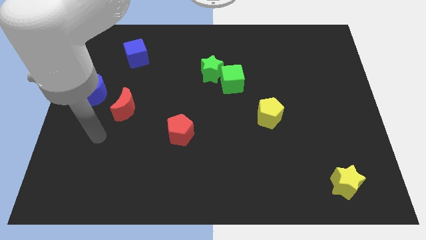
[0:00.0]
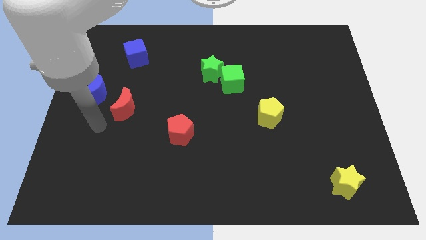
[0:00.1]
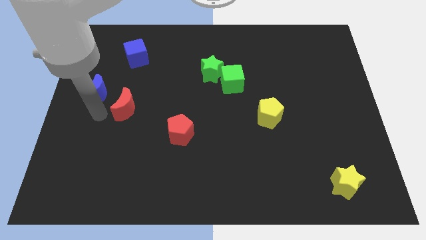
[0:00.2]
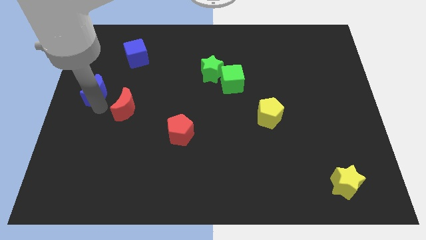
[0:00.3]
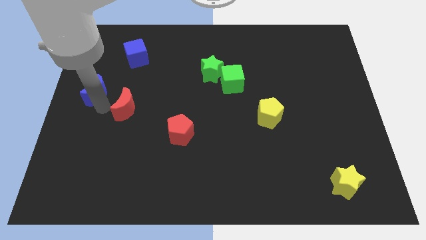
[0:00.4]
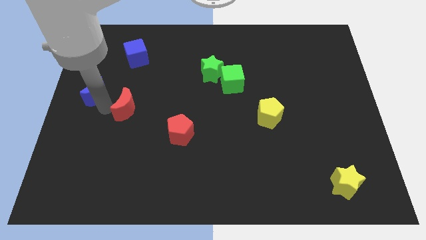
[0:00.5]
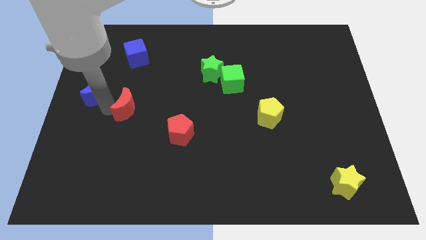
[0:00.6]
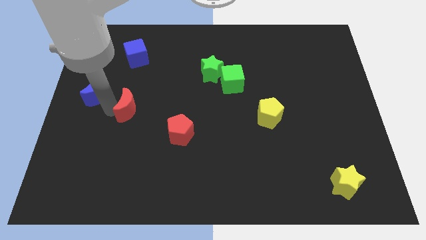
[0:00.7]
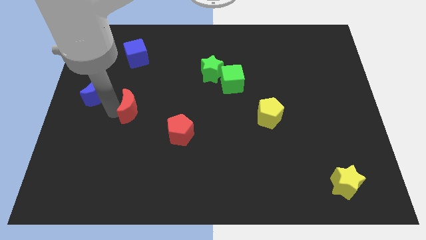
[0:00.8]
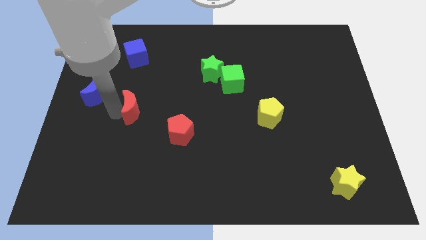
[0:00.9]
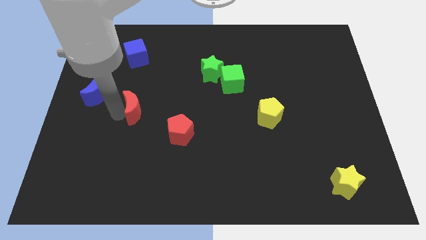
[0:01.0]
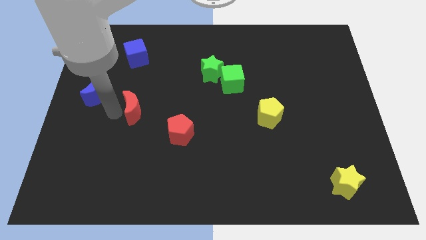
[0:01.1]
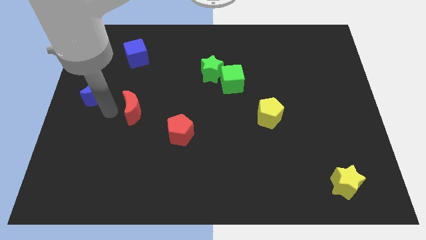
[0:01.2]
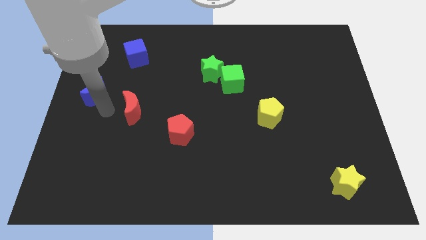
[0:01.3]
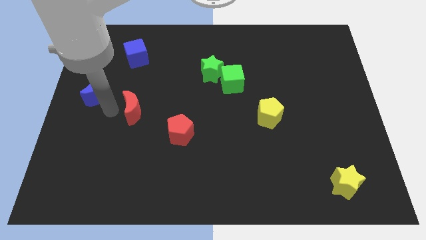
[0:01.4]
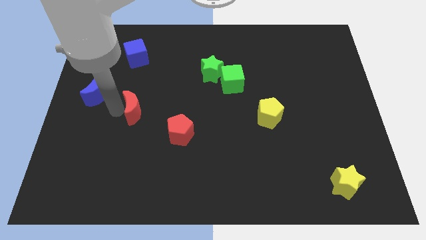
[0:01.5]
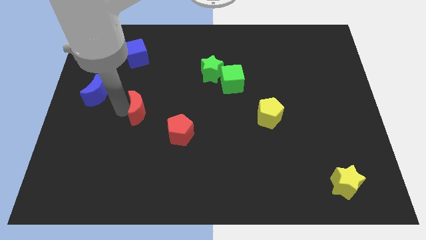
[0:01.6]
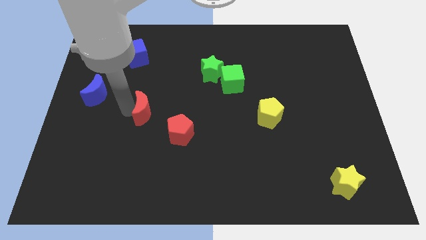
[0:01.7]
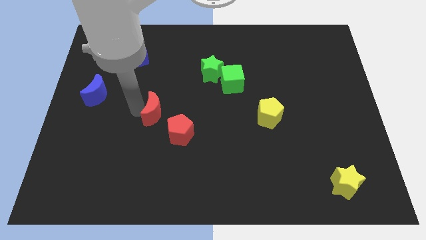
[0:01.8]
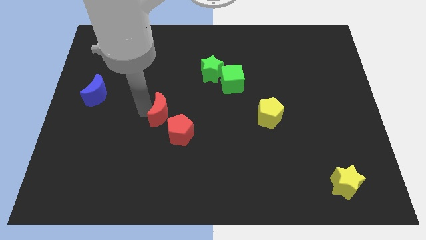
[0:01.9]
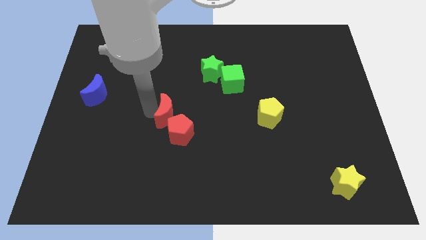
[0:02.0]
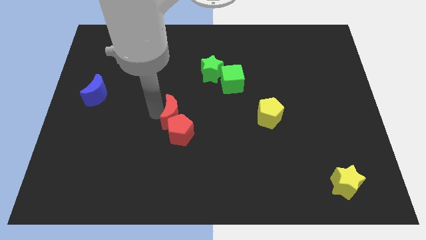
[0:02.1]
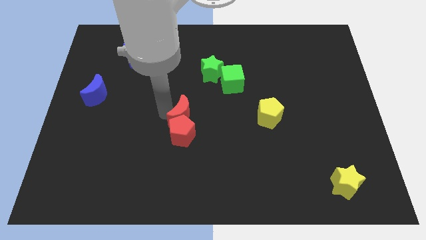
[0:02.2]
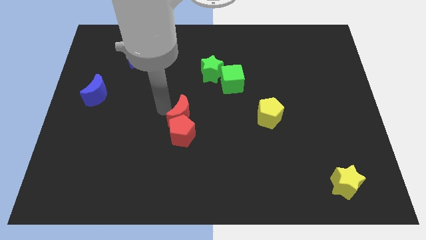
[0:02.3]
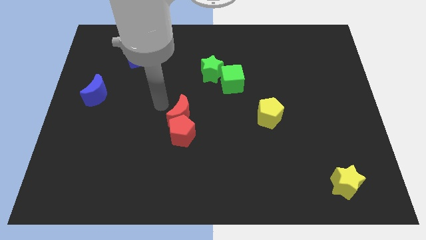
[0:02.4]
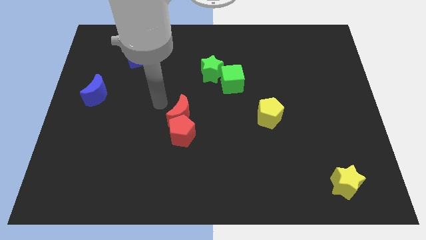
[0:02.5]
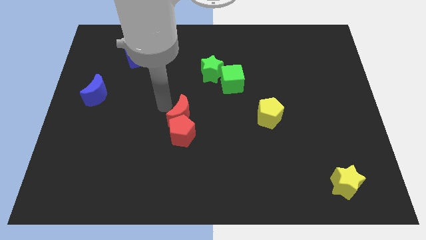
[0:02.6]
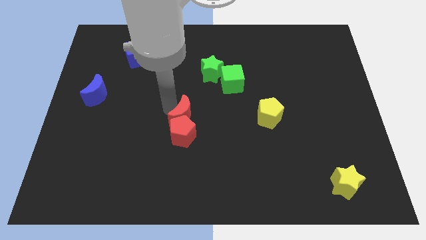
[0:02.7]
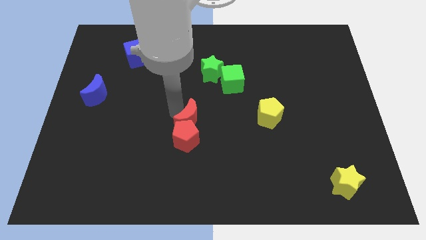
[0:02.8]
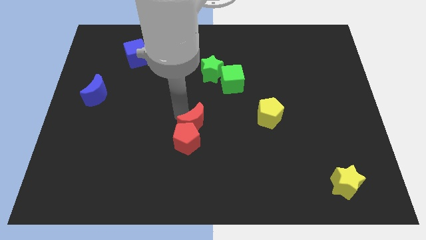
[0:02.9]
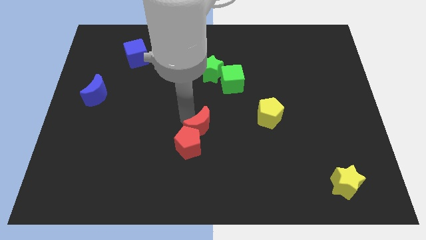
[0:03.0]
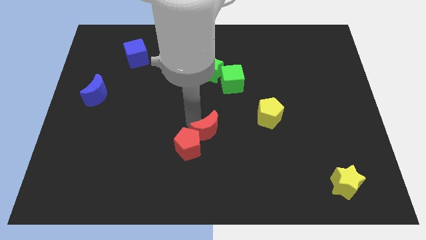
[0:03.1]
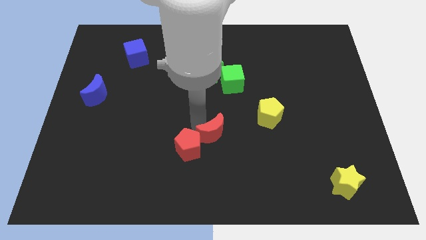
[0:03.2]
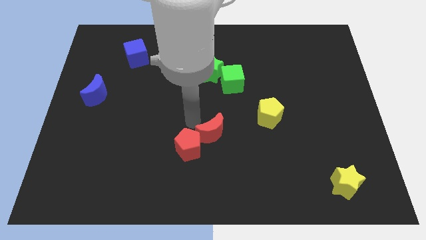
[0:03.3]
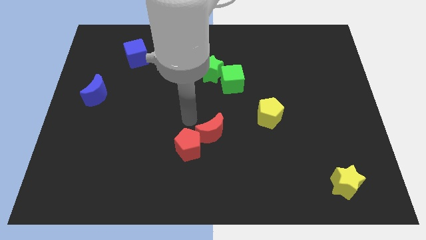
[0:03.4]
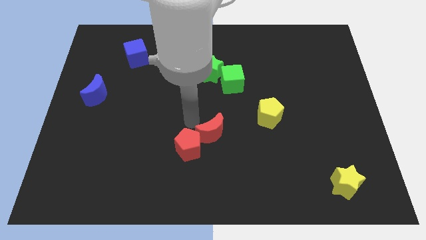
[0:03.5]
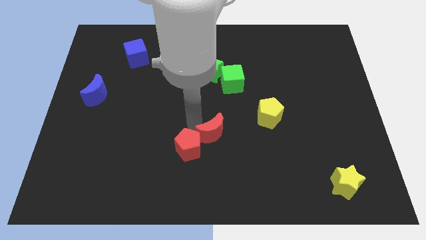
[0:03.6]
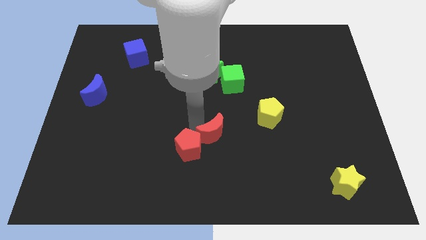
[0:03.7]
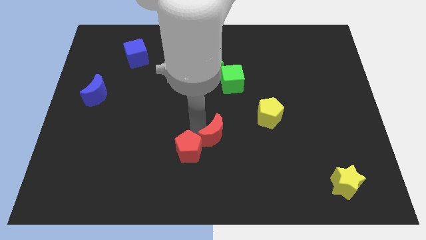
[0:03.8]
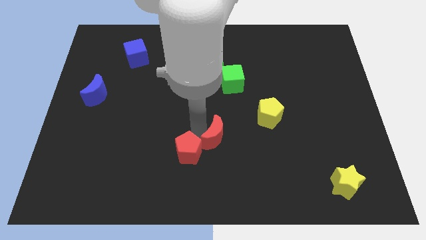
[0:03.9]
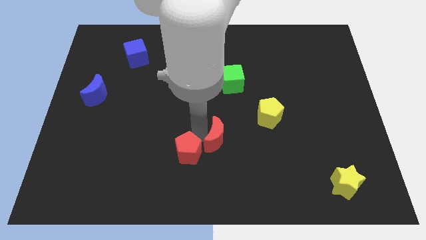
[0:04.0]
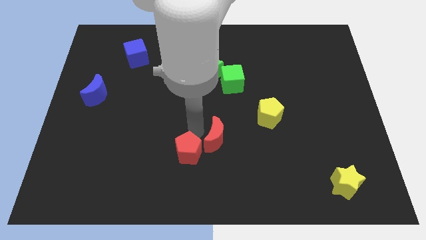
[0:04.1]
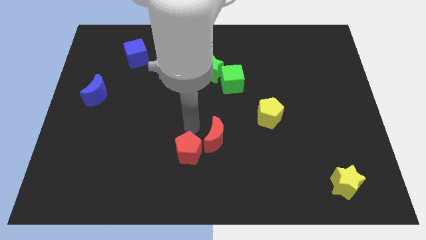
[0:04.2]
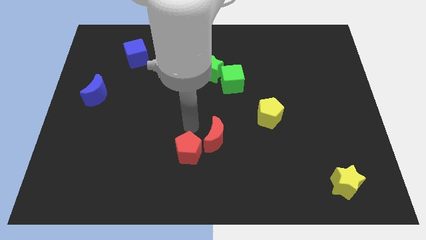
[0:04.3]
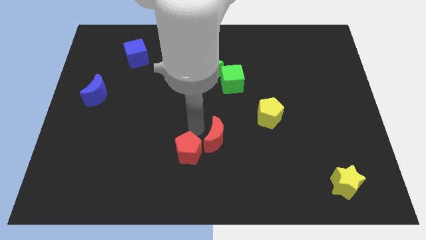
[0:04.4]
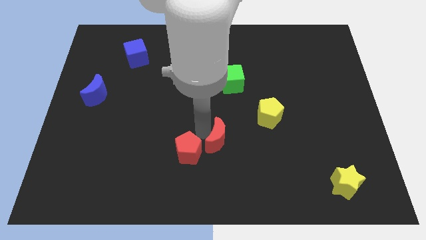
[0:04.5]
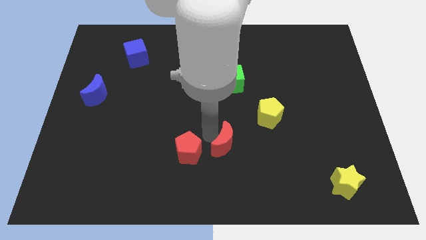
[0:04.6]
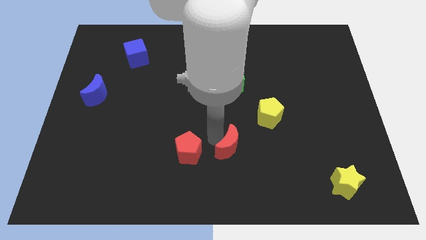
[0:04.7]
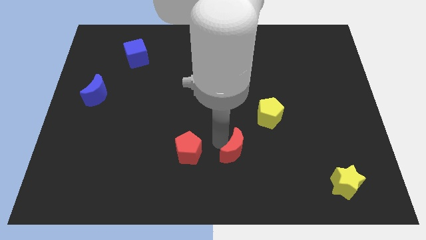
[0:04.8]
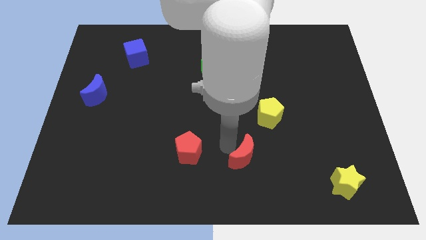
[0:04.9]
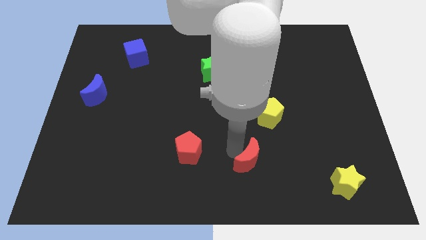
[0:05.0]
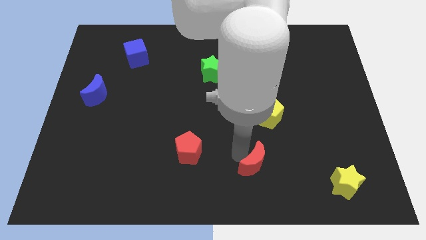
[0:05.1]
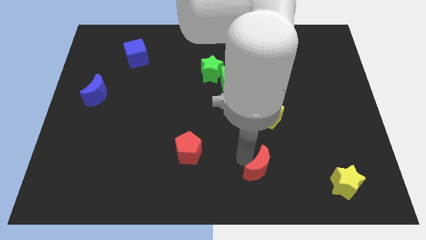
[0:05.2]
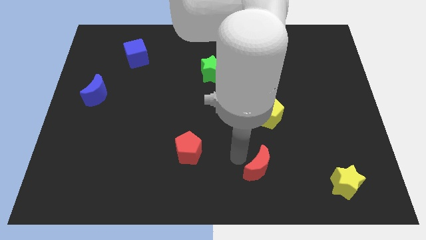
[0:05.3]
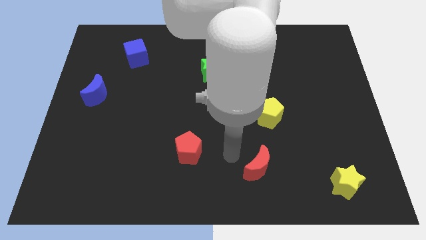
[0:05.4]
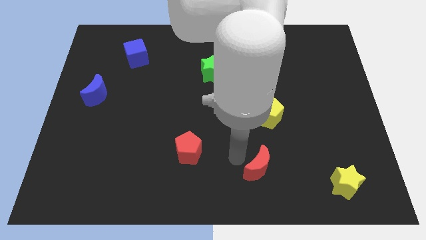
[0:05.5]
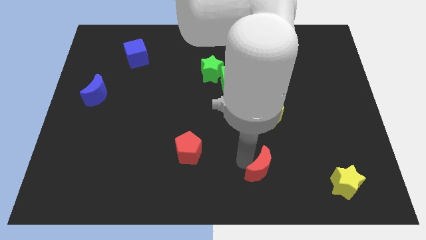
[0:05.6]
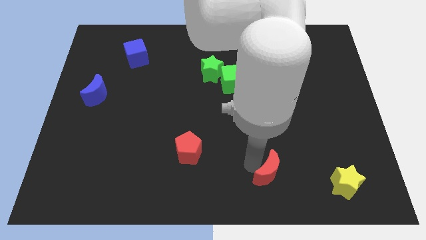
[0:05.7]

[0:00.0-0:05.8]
put the red moon just left of the yellow star

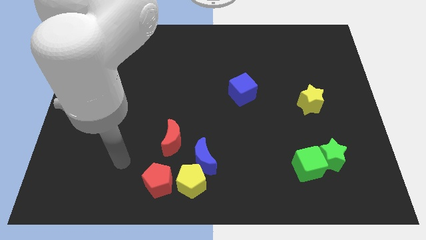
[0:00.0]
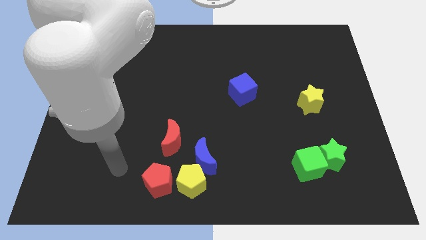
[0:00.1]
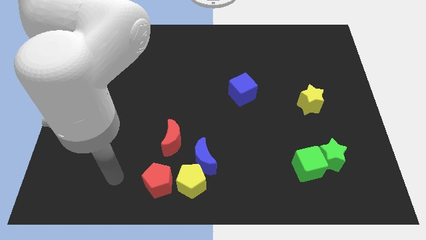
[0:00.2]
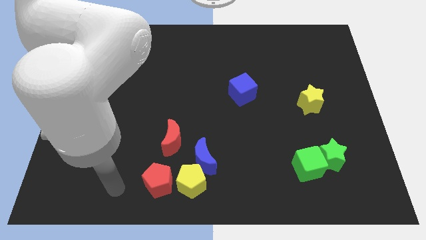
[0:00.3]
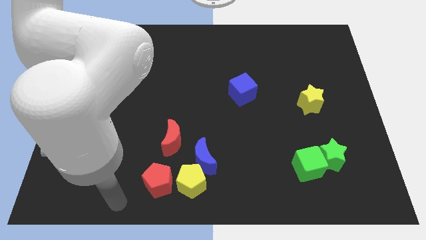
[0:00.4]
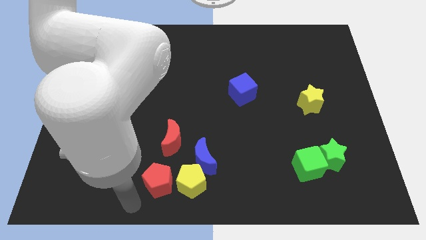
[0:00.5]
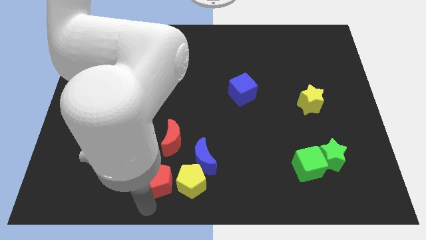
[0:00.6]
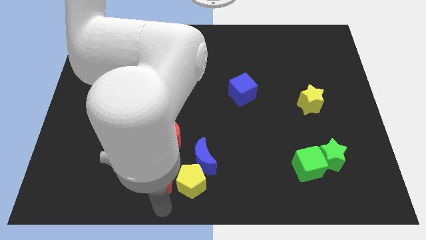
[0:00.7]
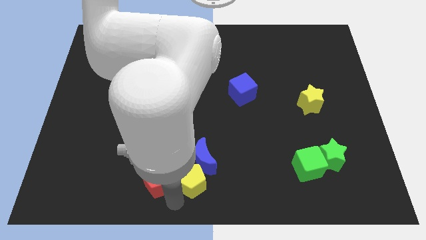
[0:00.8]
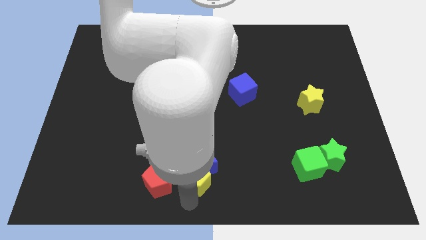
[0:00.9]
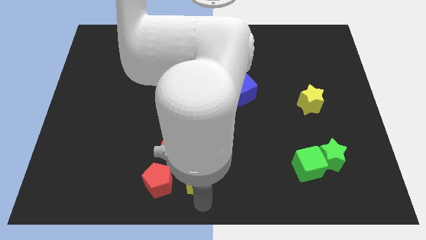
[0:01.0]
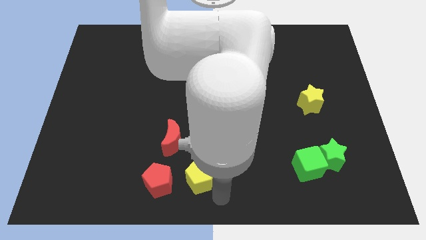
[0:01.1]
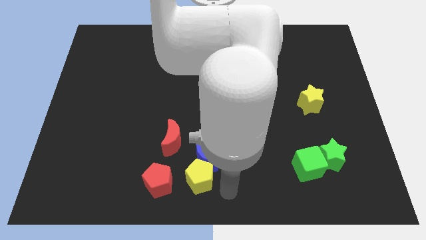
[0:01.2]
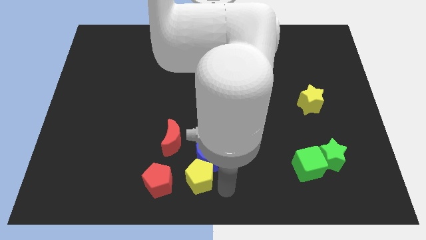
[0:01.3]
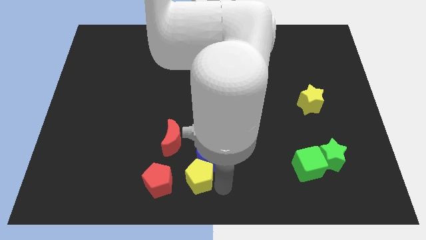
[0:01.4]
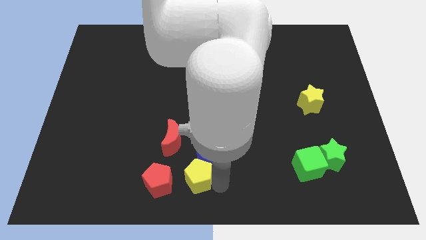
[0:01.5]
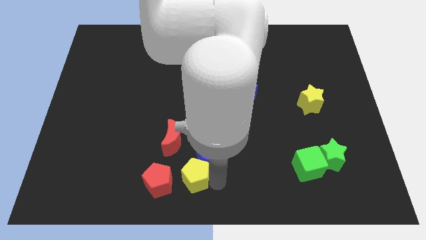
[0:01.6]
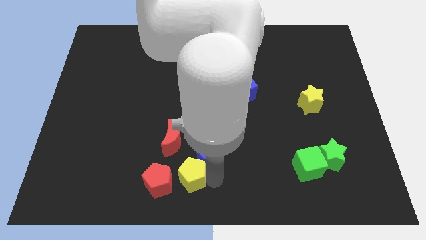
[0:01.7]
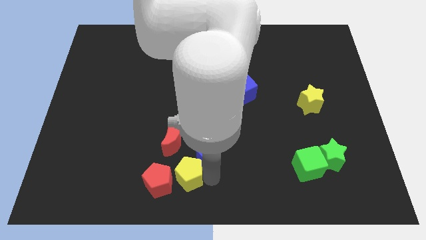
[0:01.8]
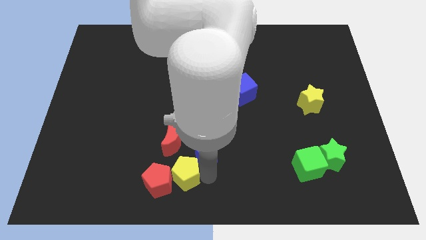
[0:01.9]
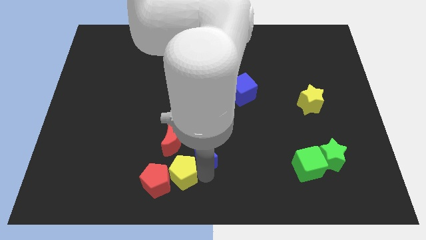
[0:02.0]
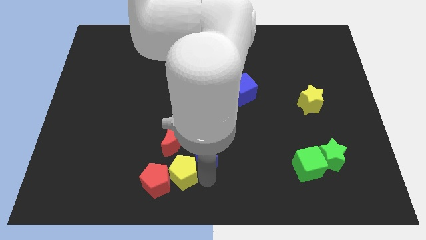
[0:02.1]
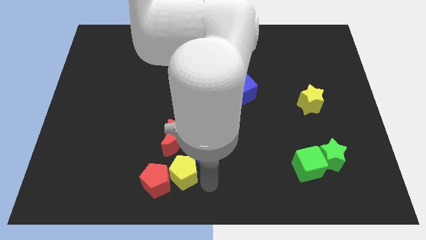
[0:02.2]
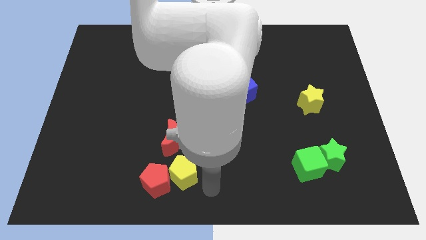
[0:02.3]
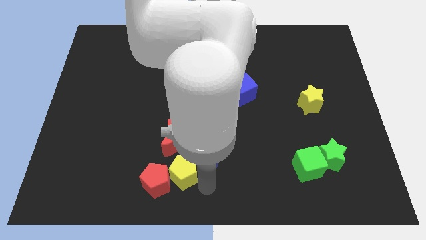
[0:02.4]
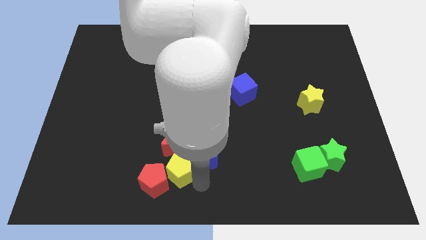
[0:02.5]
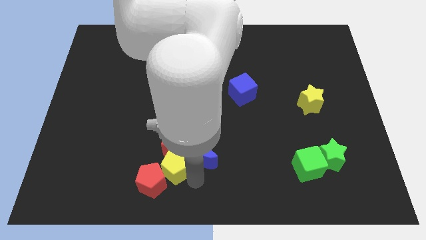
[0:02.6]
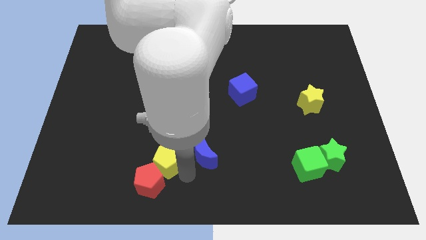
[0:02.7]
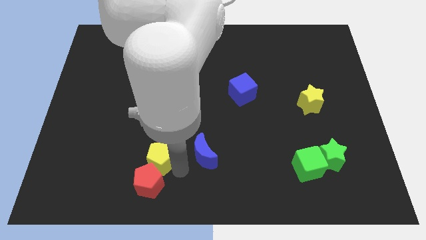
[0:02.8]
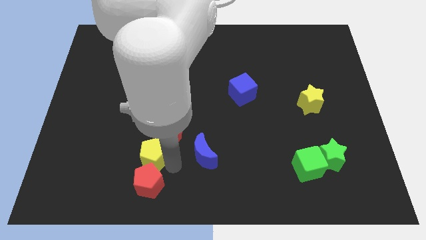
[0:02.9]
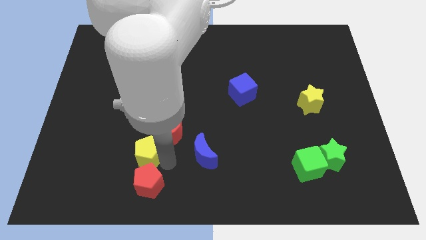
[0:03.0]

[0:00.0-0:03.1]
push the yellow pentagon left of the red moon
